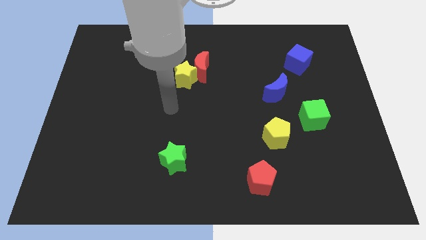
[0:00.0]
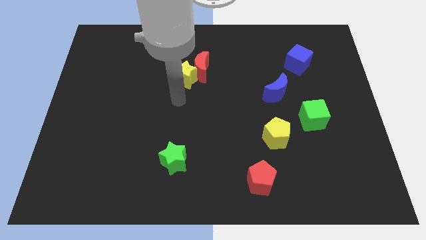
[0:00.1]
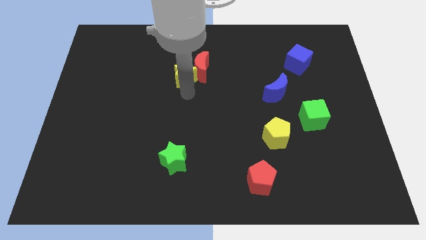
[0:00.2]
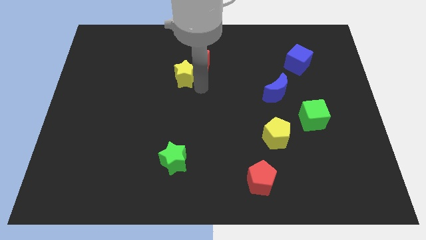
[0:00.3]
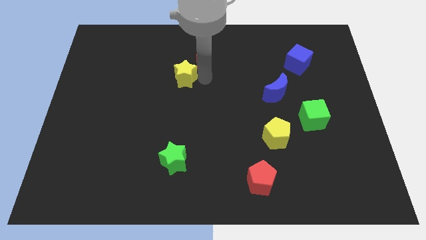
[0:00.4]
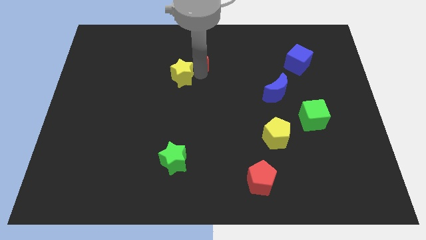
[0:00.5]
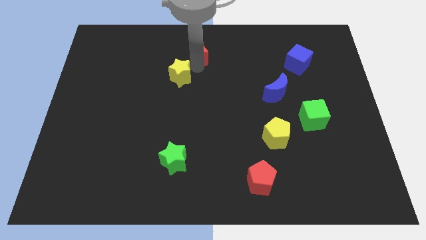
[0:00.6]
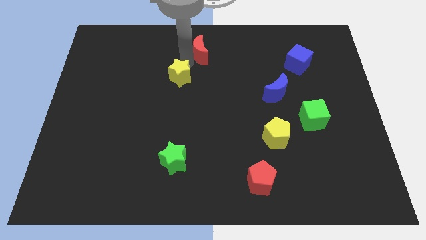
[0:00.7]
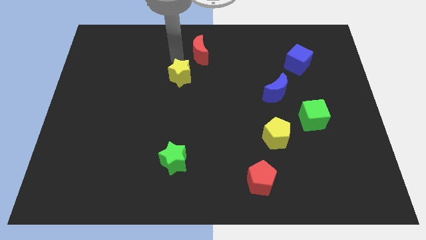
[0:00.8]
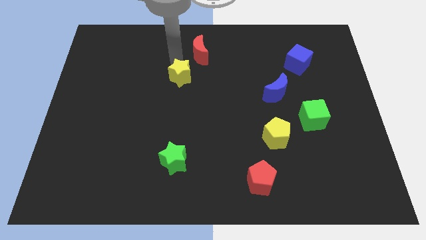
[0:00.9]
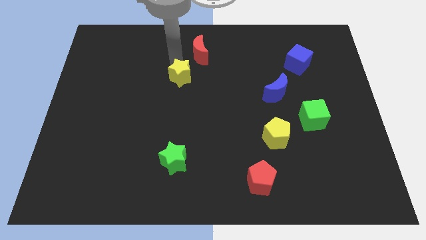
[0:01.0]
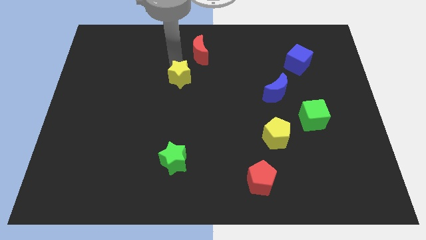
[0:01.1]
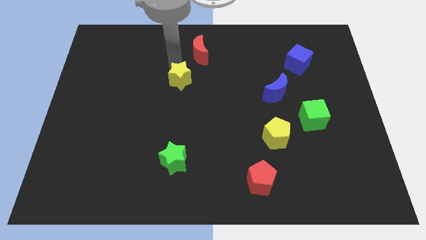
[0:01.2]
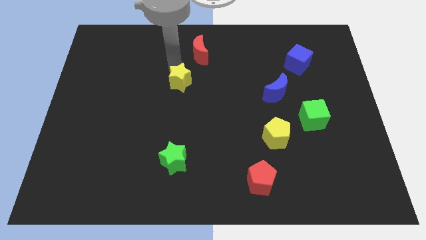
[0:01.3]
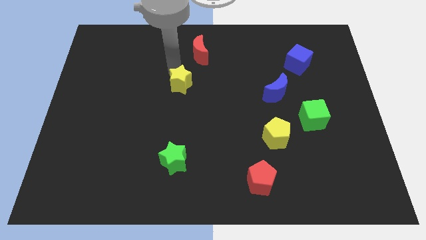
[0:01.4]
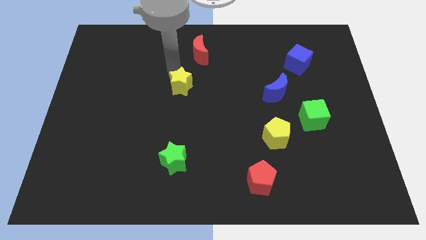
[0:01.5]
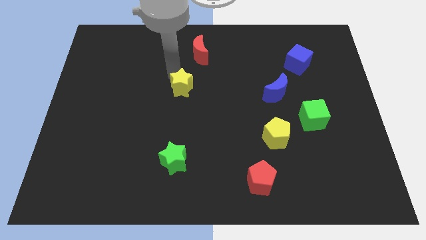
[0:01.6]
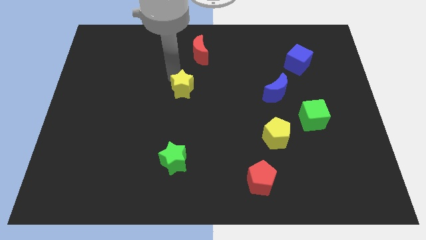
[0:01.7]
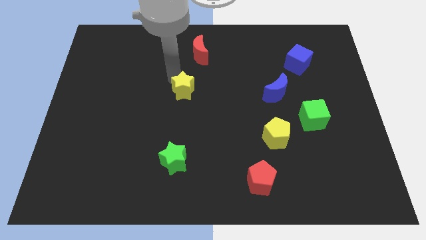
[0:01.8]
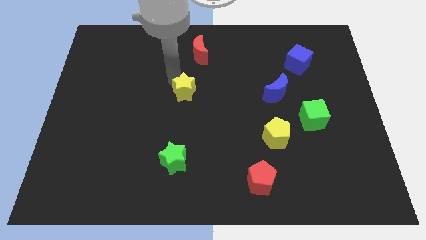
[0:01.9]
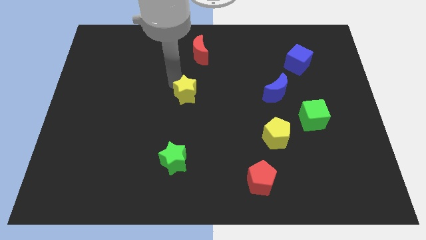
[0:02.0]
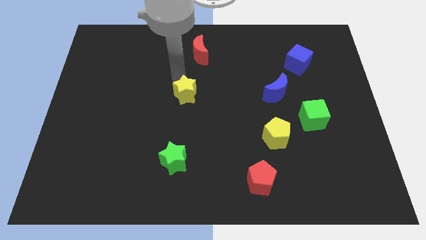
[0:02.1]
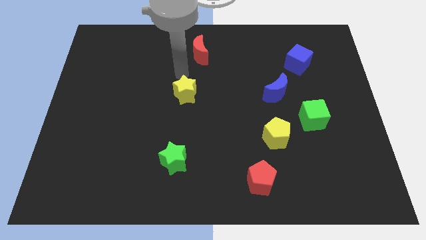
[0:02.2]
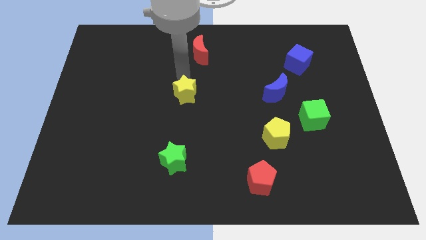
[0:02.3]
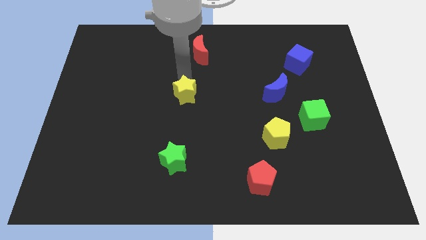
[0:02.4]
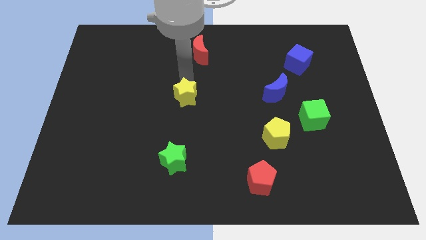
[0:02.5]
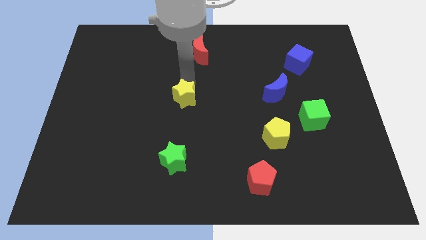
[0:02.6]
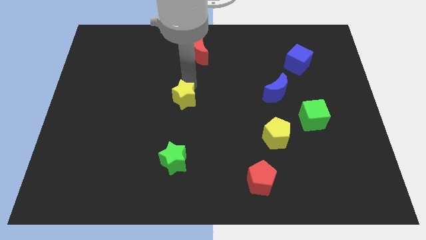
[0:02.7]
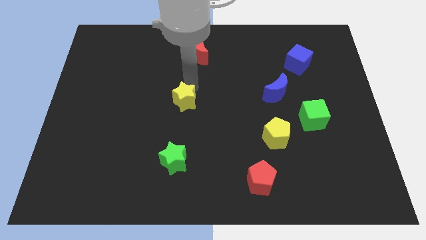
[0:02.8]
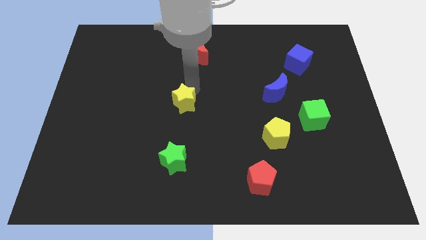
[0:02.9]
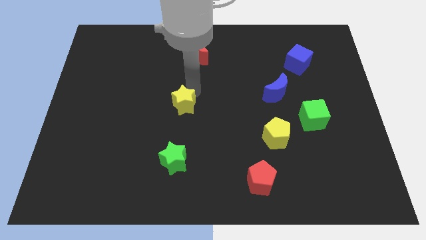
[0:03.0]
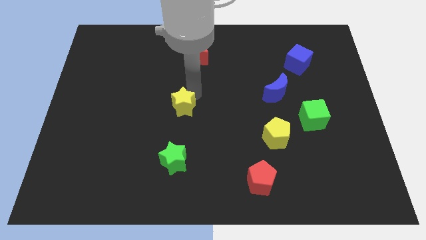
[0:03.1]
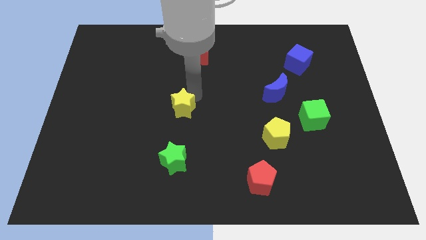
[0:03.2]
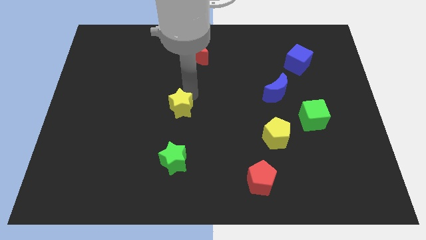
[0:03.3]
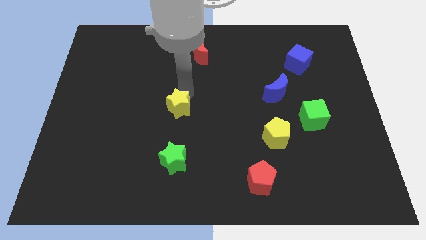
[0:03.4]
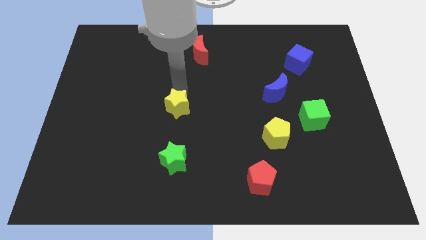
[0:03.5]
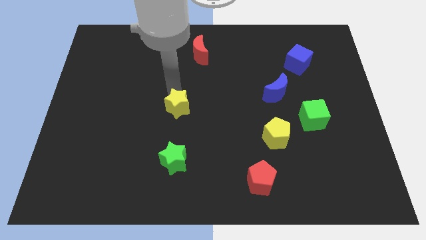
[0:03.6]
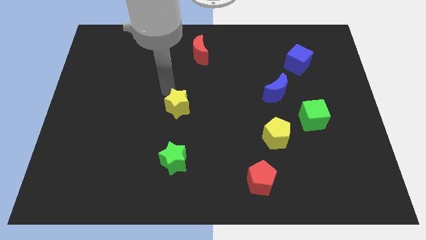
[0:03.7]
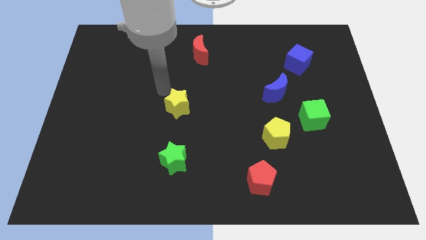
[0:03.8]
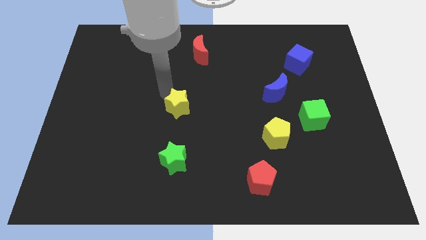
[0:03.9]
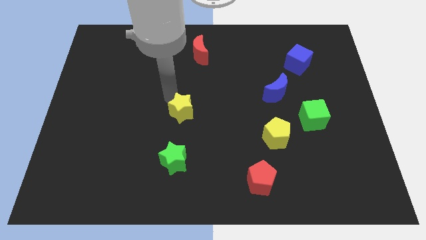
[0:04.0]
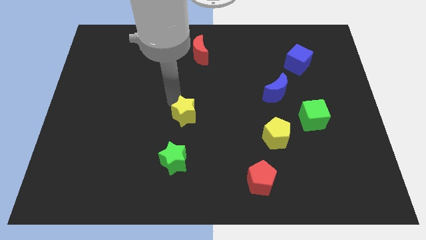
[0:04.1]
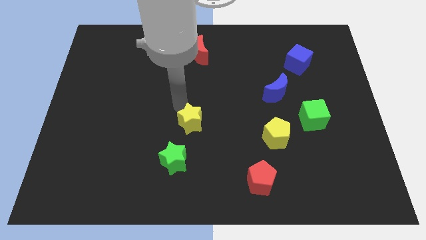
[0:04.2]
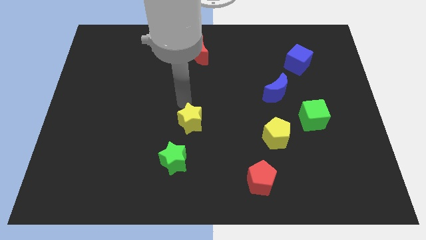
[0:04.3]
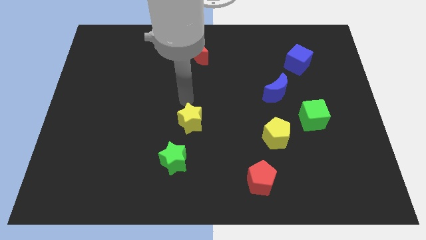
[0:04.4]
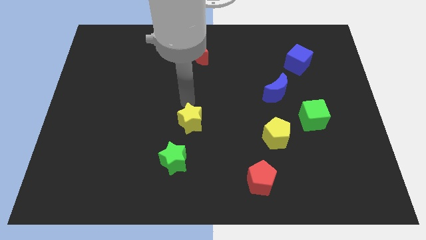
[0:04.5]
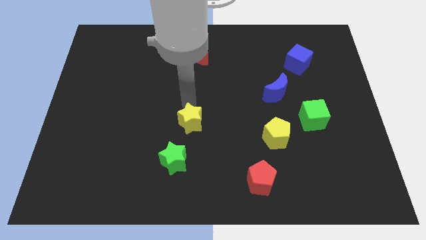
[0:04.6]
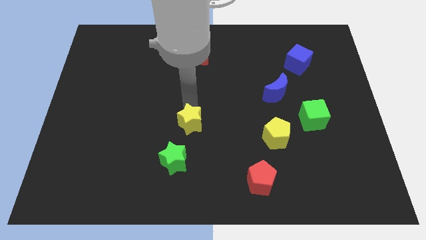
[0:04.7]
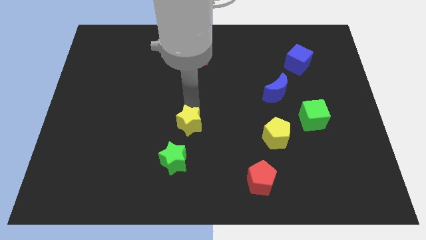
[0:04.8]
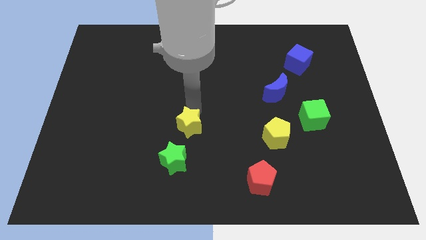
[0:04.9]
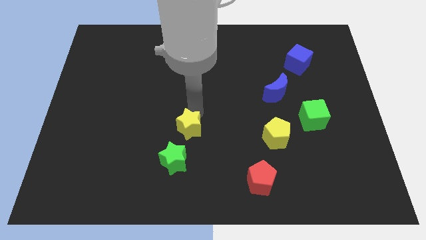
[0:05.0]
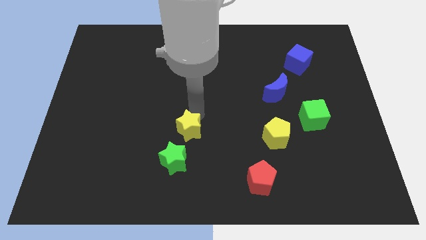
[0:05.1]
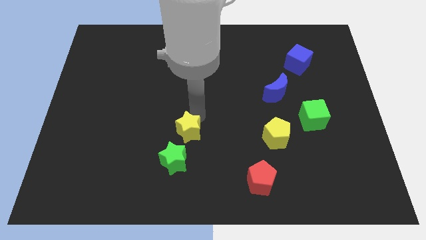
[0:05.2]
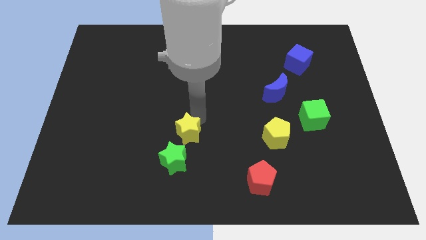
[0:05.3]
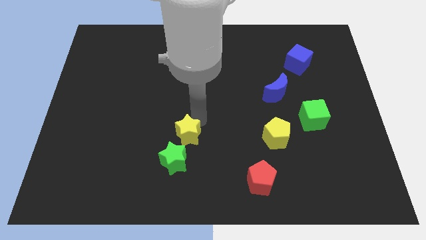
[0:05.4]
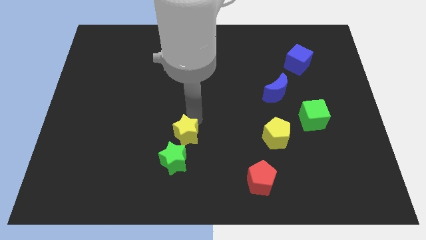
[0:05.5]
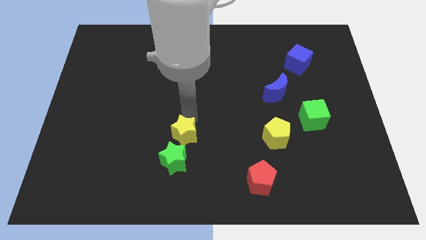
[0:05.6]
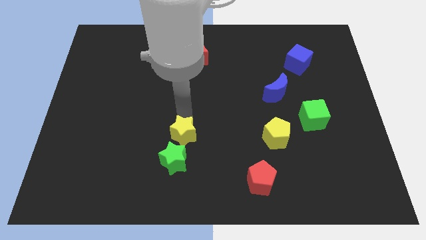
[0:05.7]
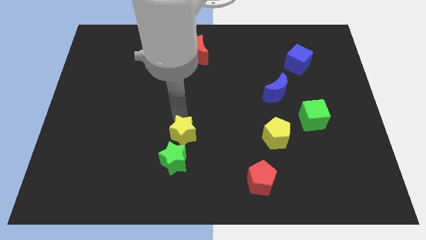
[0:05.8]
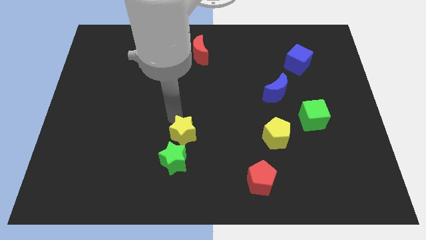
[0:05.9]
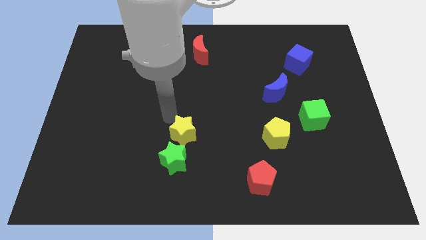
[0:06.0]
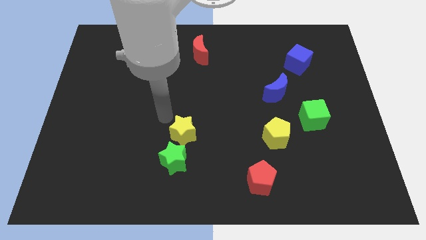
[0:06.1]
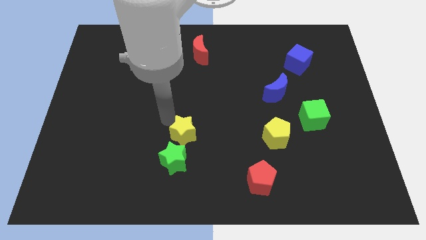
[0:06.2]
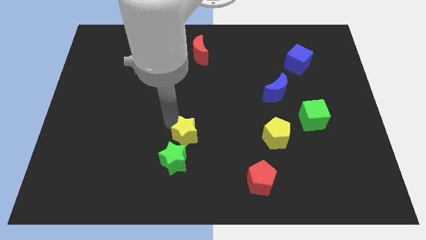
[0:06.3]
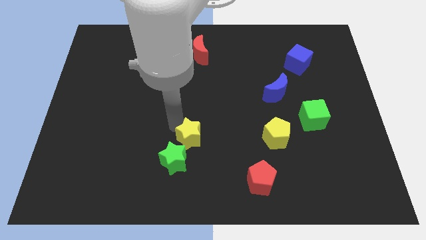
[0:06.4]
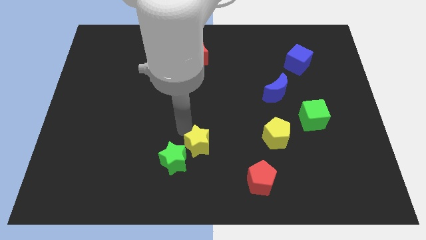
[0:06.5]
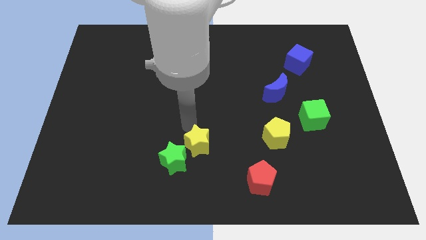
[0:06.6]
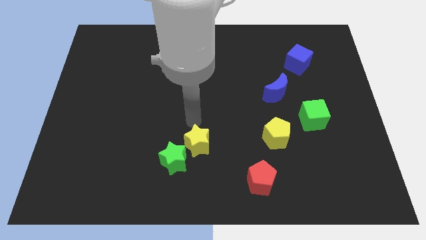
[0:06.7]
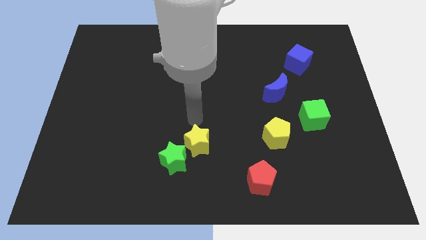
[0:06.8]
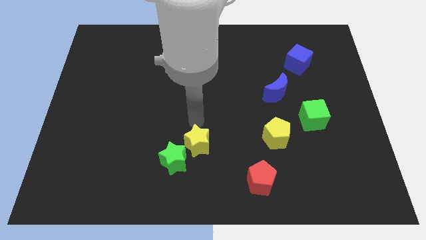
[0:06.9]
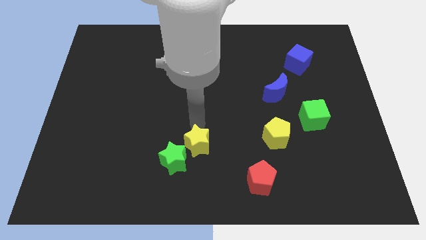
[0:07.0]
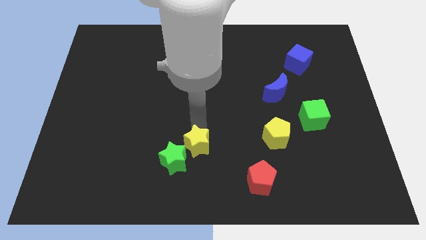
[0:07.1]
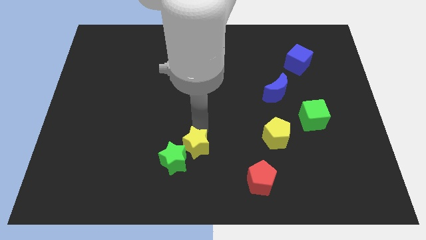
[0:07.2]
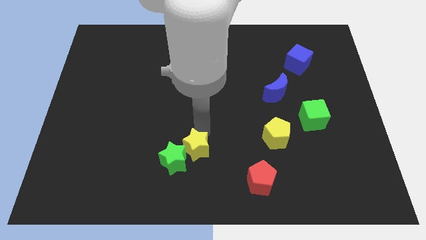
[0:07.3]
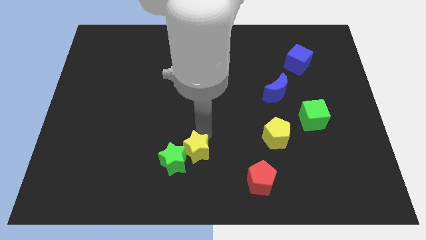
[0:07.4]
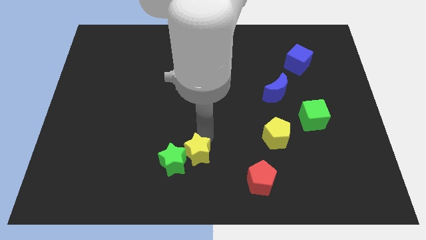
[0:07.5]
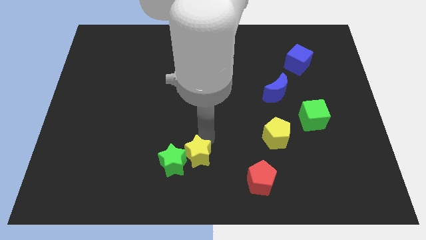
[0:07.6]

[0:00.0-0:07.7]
move the yellow star to the bottom
